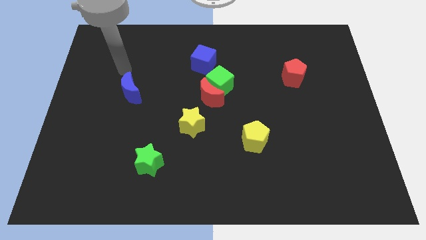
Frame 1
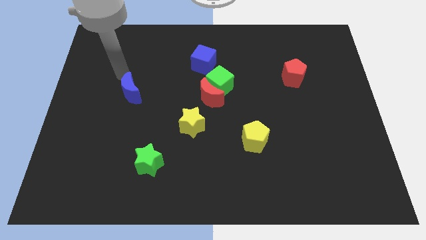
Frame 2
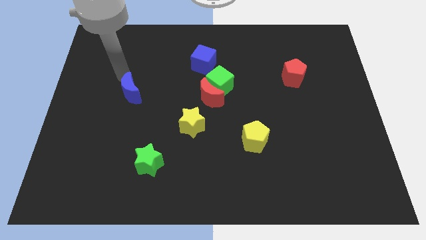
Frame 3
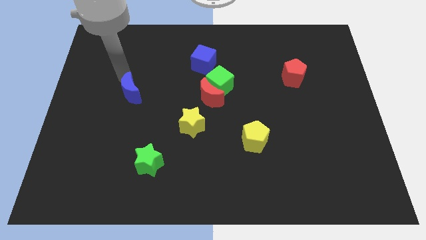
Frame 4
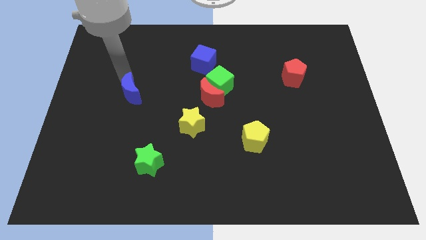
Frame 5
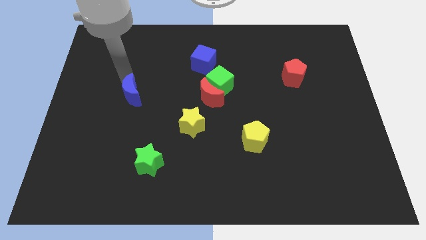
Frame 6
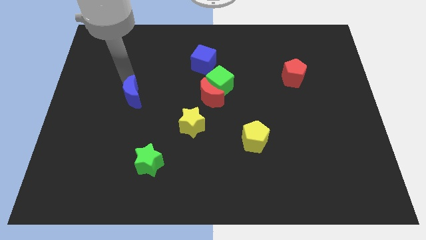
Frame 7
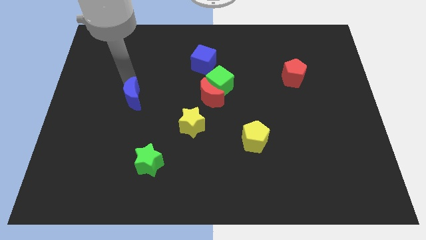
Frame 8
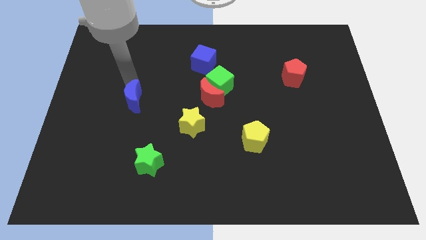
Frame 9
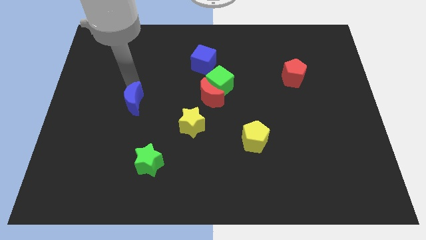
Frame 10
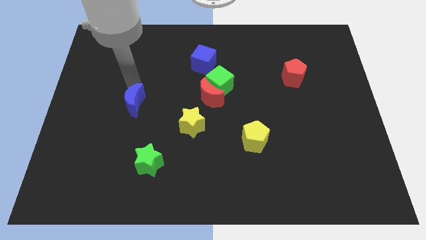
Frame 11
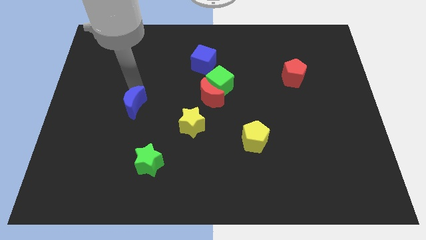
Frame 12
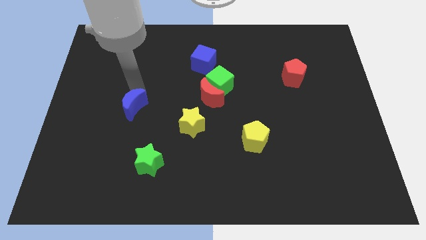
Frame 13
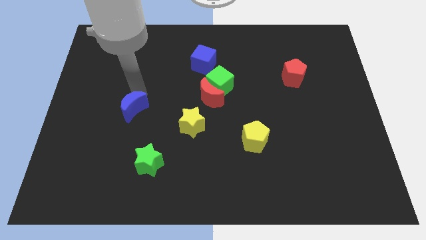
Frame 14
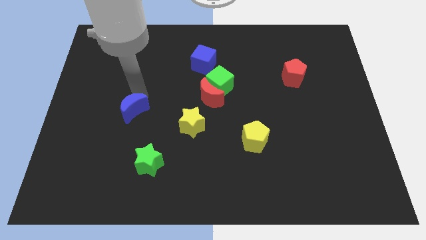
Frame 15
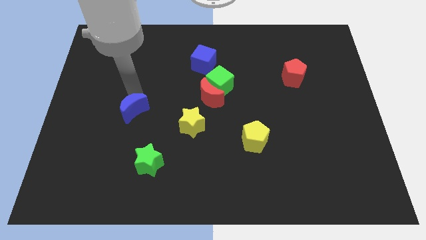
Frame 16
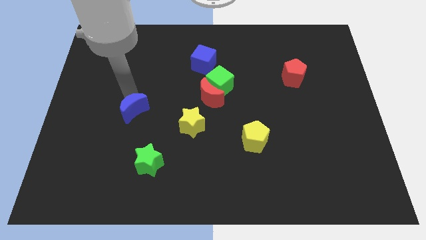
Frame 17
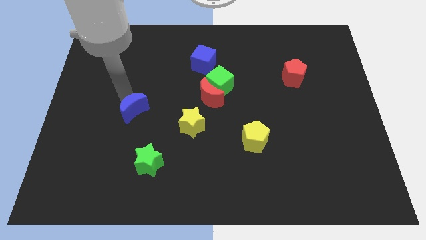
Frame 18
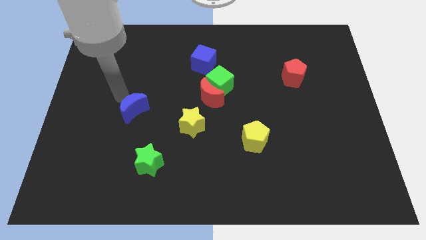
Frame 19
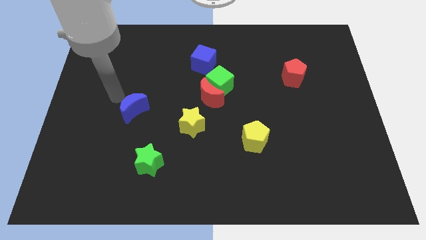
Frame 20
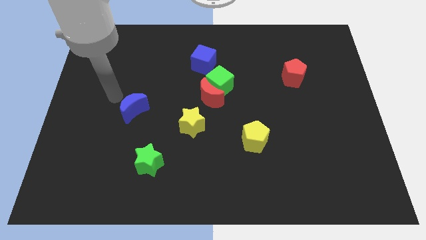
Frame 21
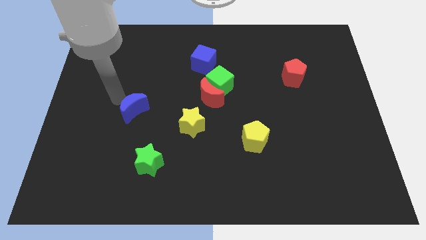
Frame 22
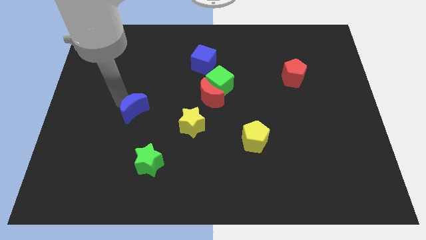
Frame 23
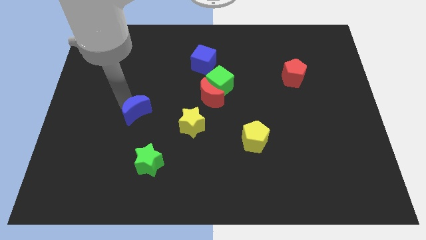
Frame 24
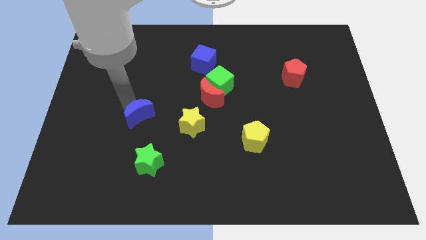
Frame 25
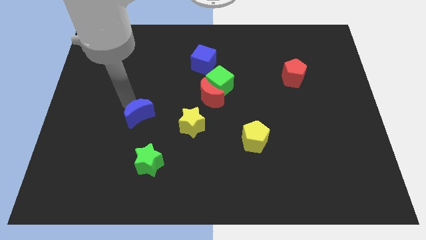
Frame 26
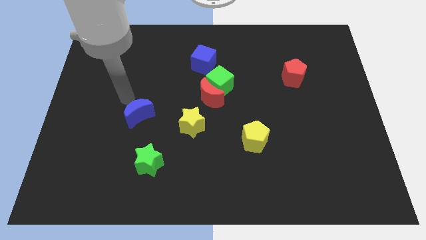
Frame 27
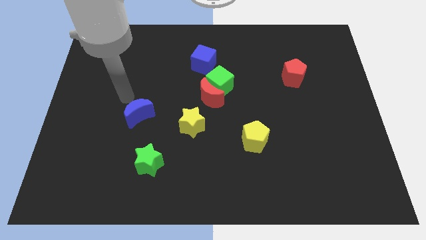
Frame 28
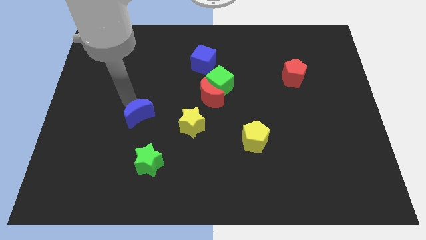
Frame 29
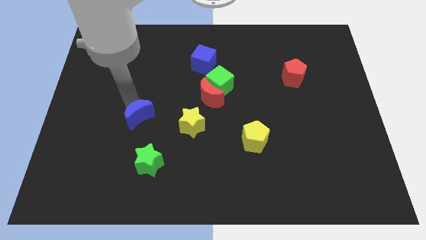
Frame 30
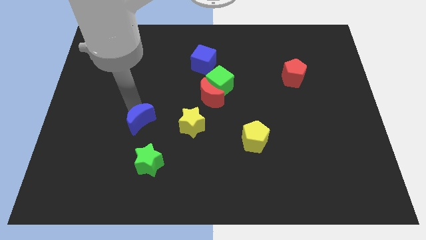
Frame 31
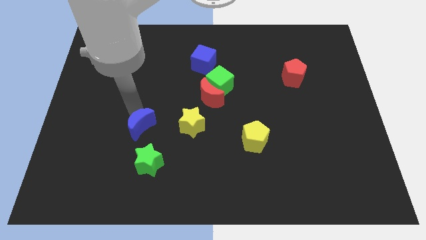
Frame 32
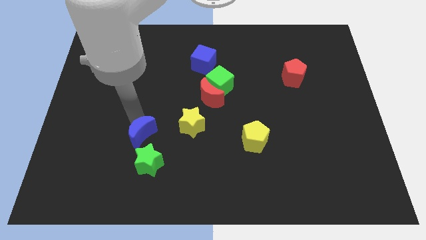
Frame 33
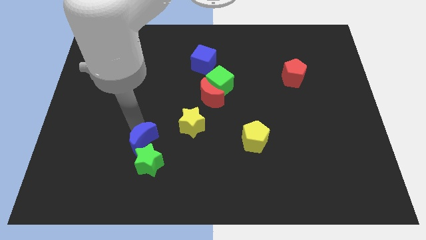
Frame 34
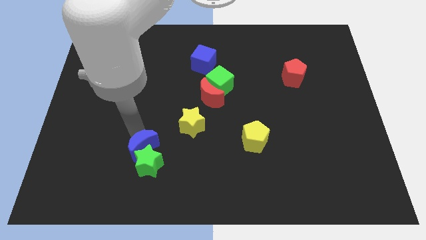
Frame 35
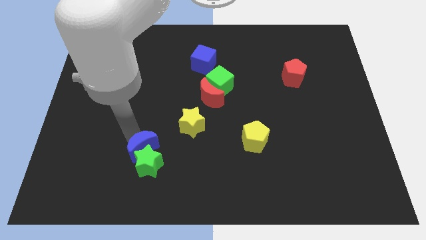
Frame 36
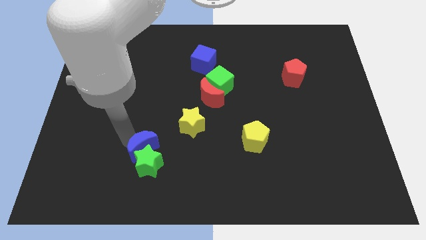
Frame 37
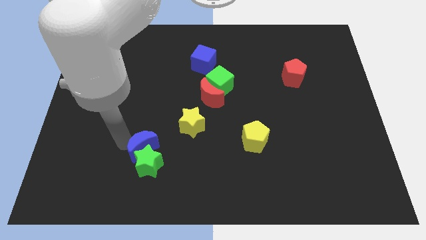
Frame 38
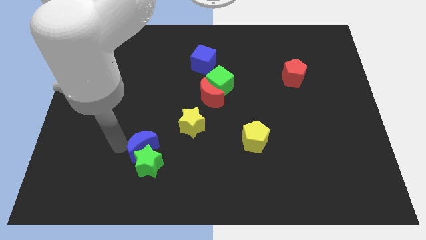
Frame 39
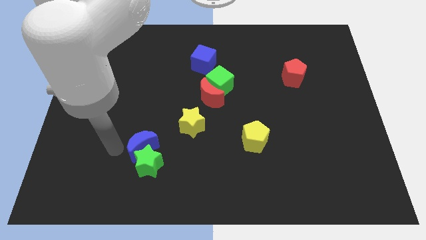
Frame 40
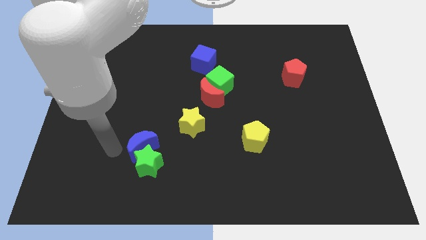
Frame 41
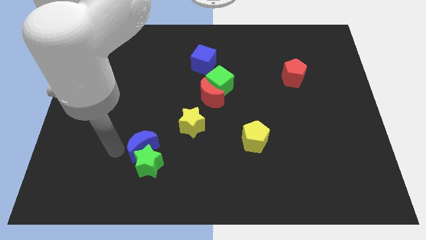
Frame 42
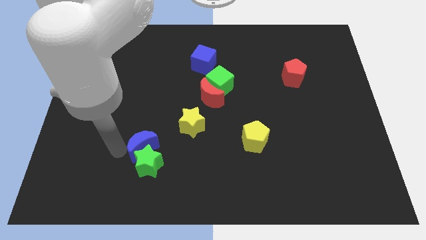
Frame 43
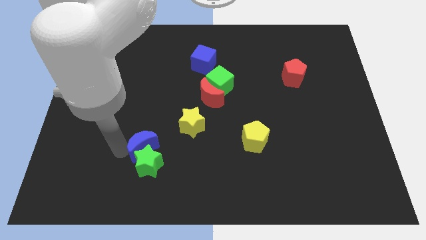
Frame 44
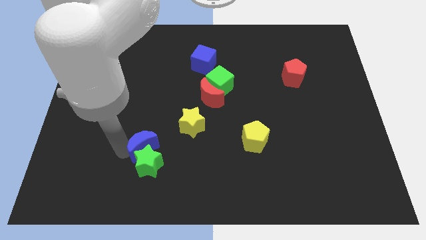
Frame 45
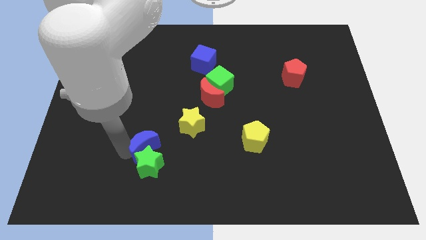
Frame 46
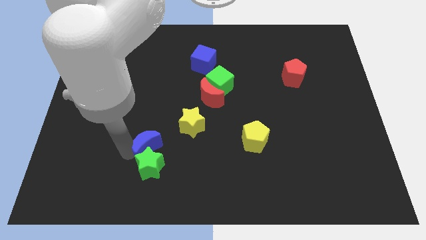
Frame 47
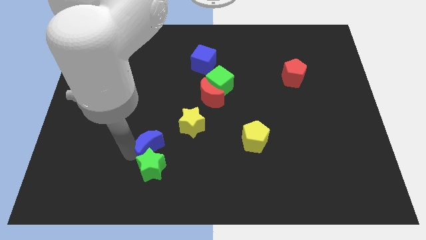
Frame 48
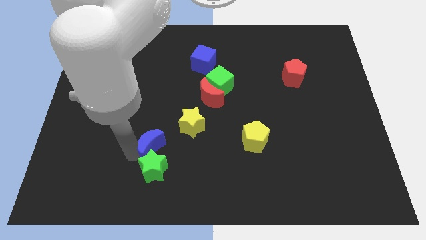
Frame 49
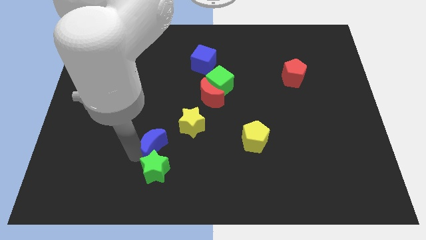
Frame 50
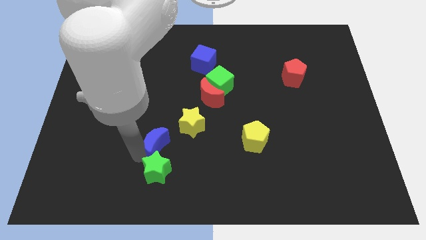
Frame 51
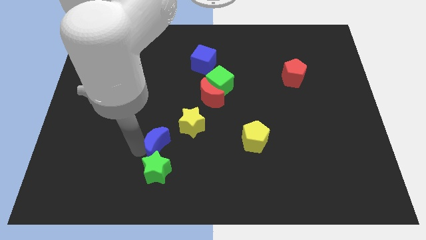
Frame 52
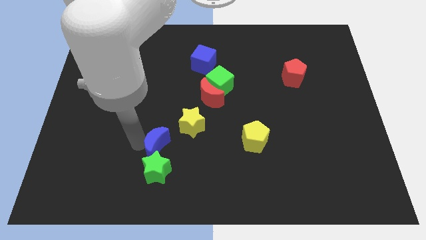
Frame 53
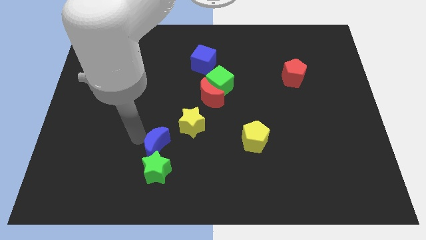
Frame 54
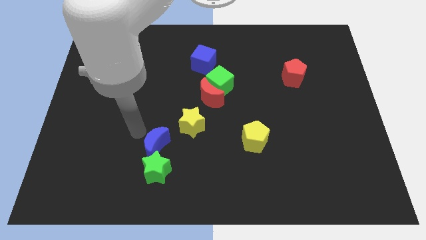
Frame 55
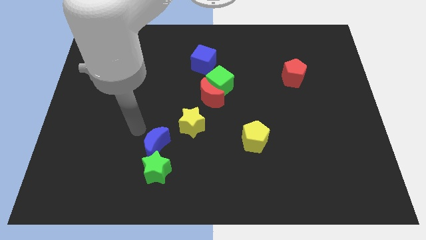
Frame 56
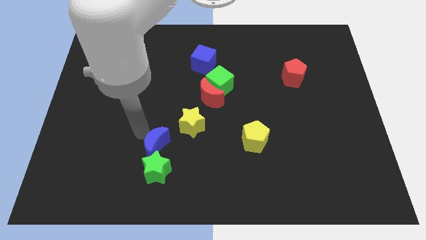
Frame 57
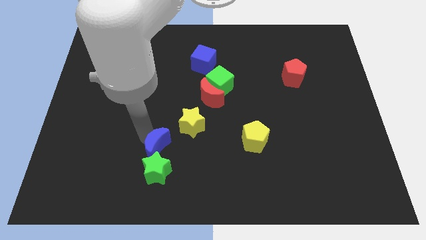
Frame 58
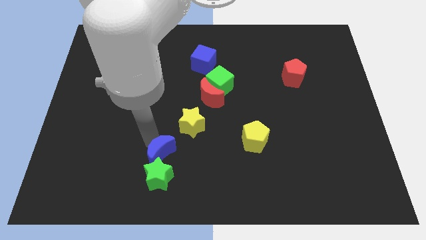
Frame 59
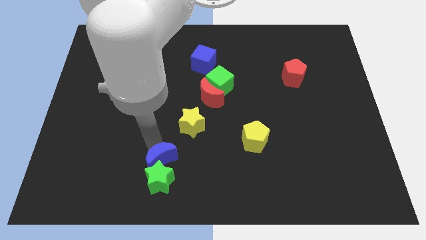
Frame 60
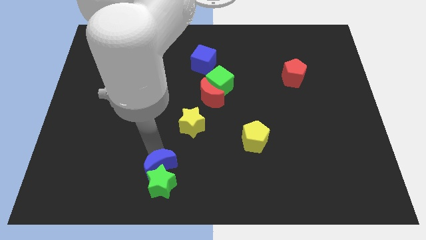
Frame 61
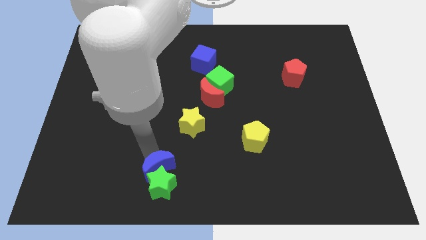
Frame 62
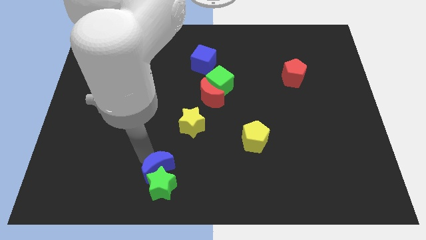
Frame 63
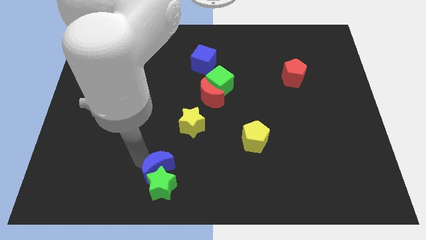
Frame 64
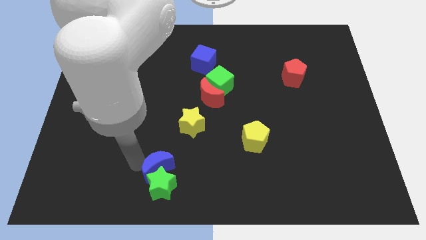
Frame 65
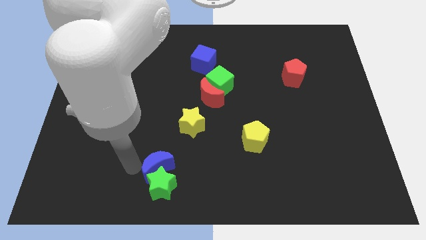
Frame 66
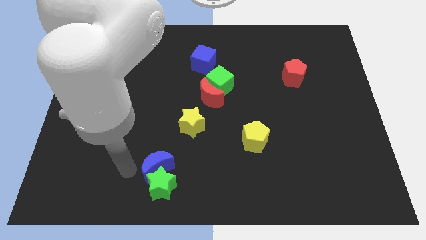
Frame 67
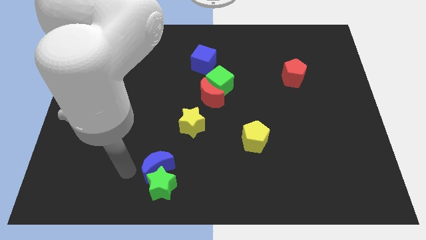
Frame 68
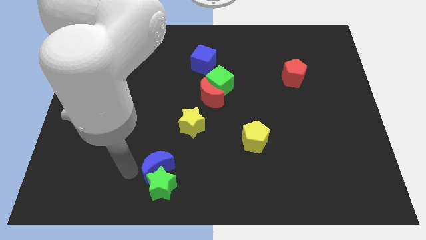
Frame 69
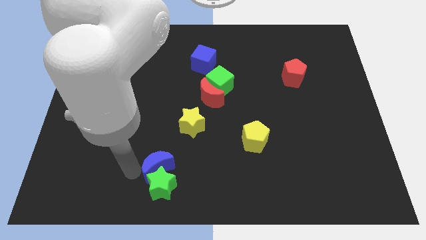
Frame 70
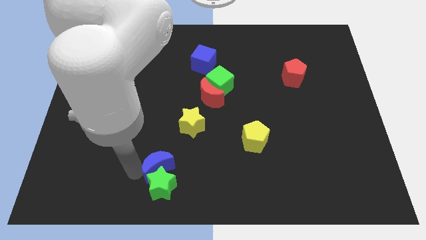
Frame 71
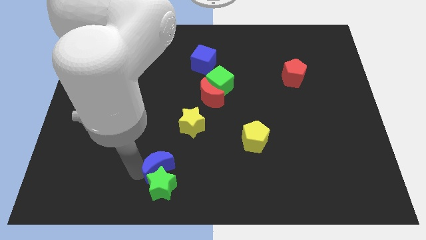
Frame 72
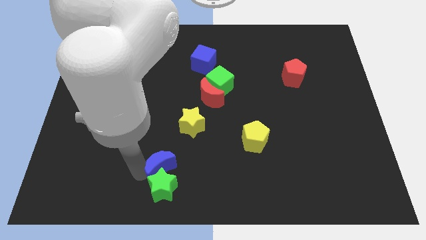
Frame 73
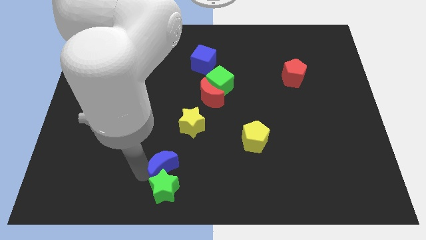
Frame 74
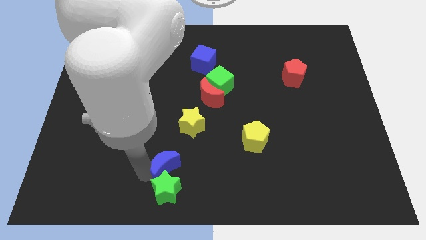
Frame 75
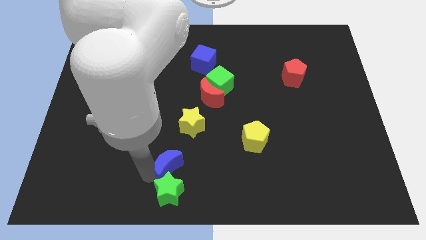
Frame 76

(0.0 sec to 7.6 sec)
push the blue moon to the bottom
